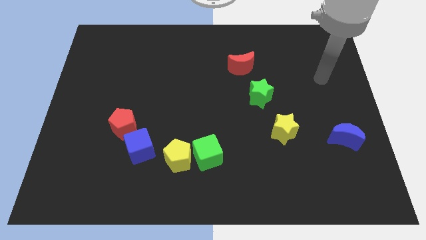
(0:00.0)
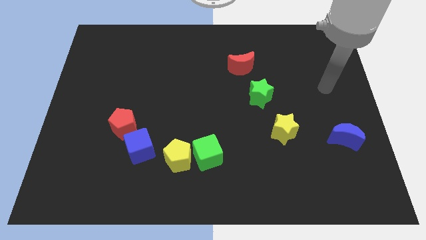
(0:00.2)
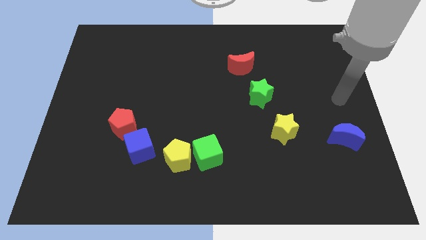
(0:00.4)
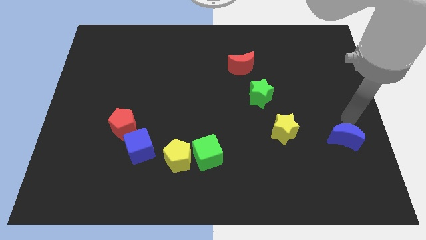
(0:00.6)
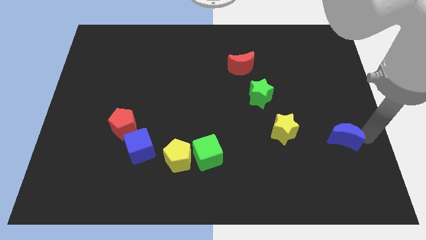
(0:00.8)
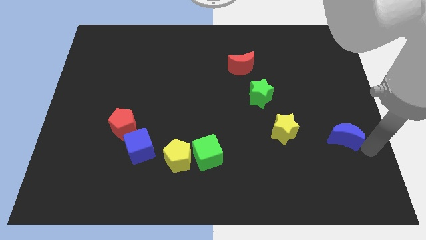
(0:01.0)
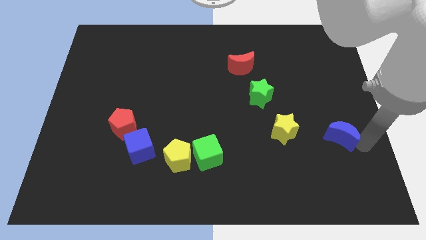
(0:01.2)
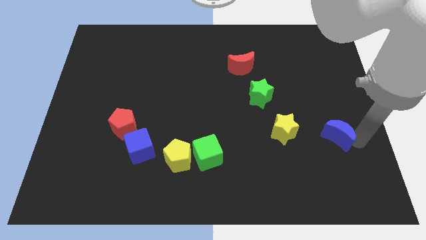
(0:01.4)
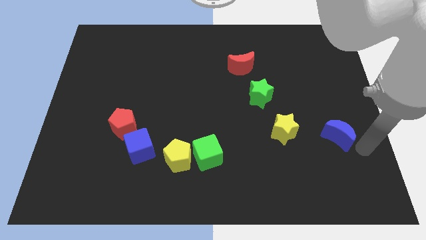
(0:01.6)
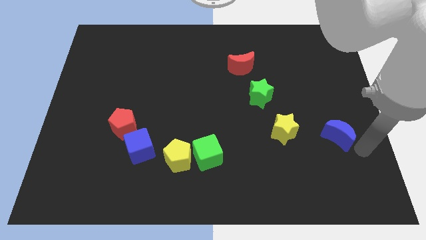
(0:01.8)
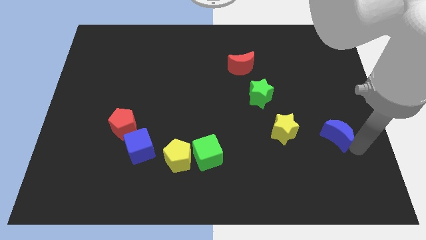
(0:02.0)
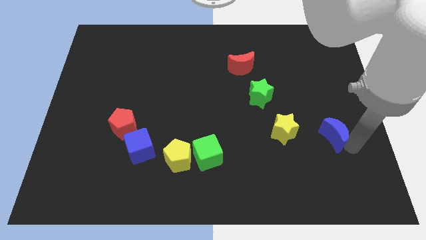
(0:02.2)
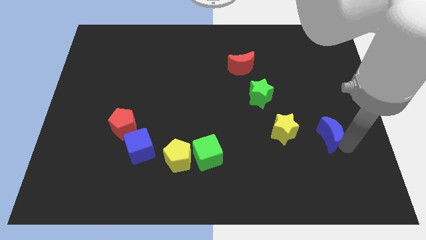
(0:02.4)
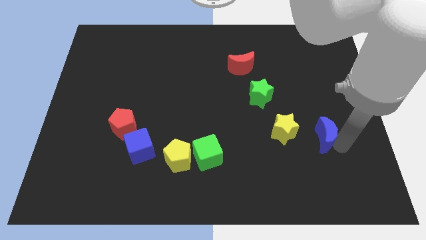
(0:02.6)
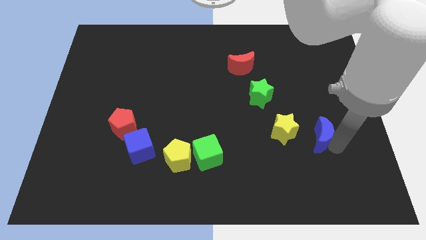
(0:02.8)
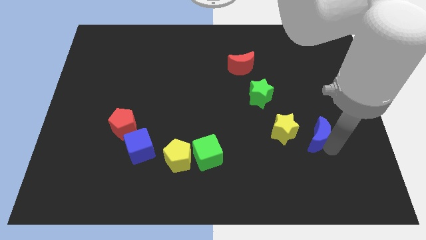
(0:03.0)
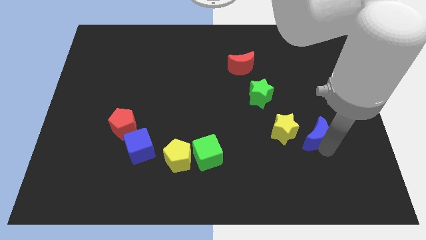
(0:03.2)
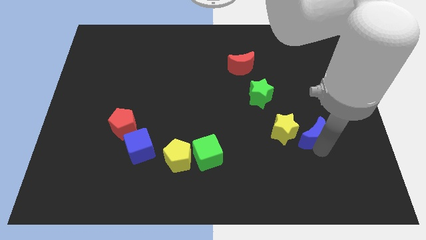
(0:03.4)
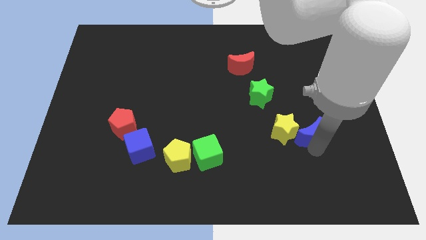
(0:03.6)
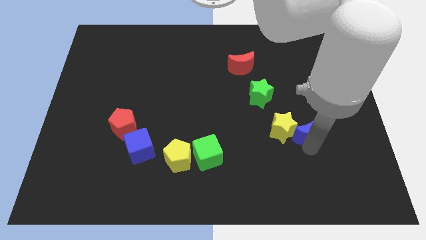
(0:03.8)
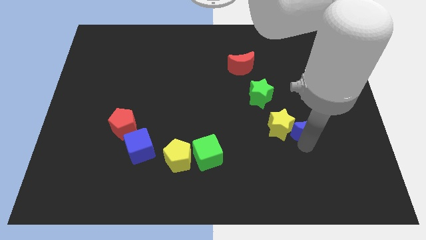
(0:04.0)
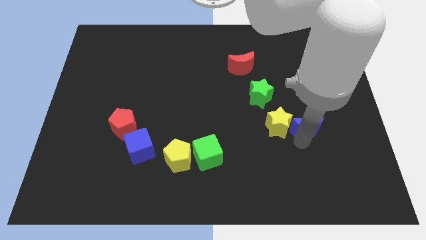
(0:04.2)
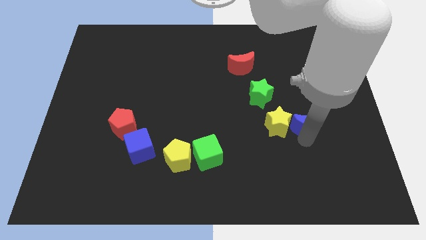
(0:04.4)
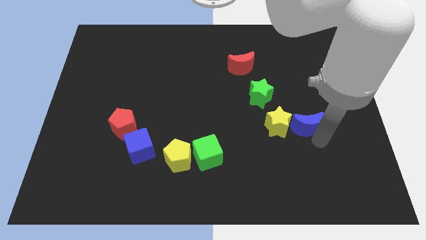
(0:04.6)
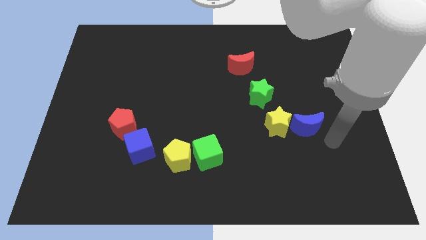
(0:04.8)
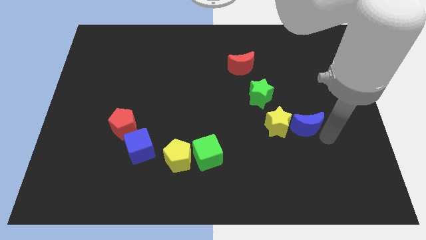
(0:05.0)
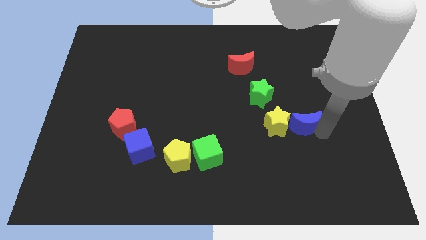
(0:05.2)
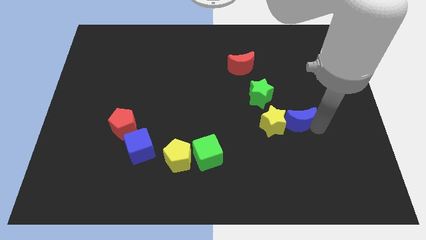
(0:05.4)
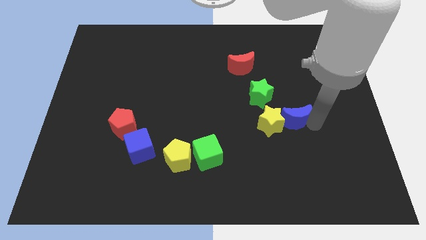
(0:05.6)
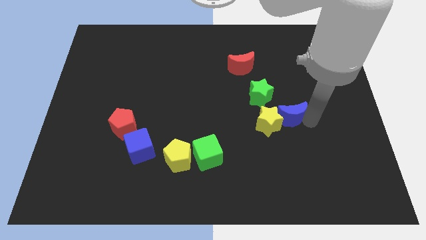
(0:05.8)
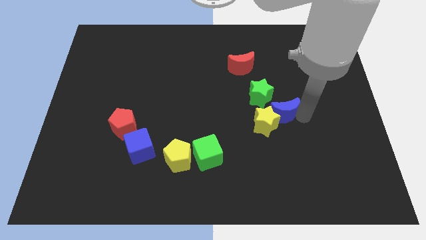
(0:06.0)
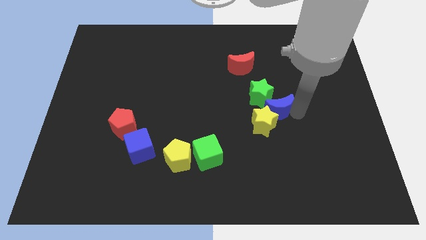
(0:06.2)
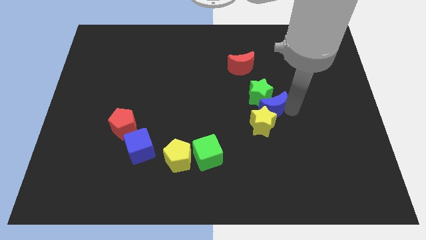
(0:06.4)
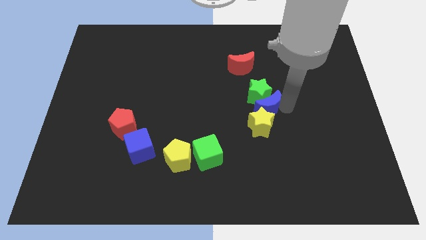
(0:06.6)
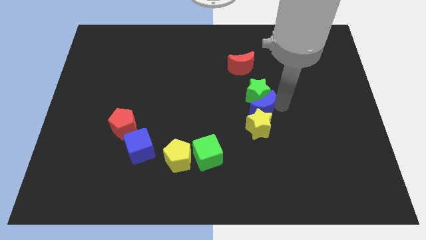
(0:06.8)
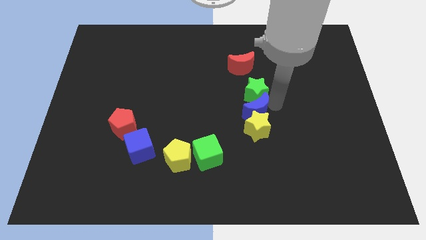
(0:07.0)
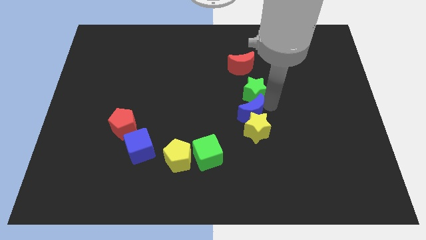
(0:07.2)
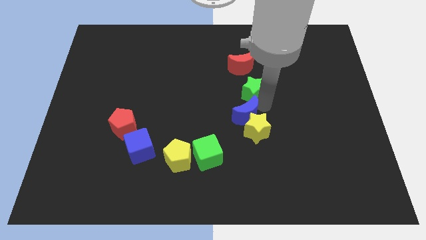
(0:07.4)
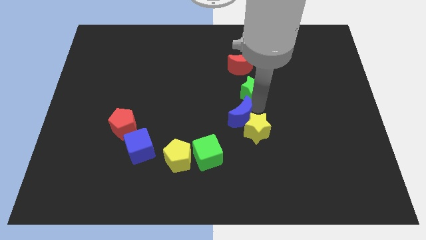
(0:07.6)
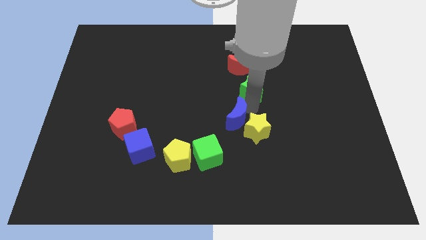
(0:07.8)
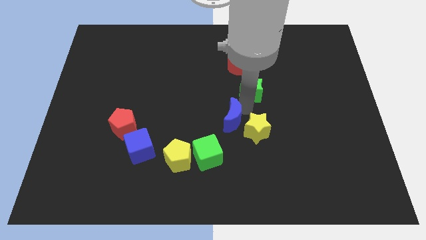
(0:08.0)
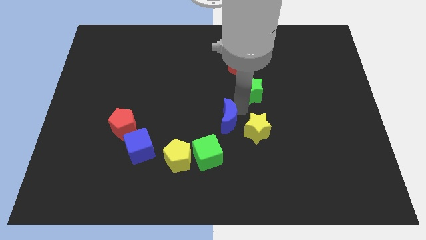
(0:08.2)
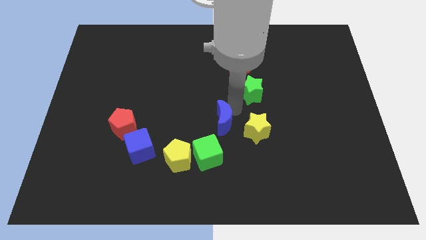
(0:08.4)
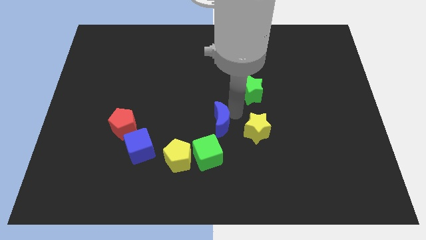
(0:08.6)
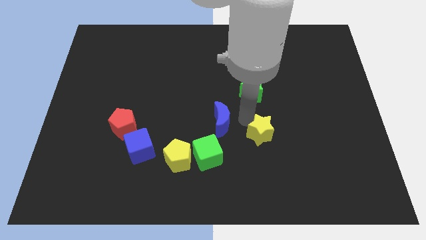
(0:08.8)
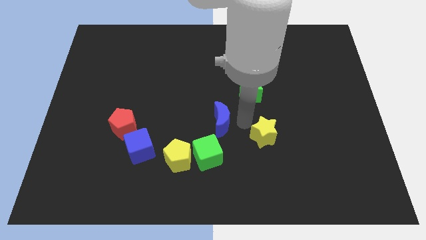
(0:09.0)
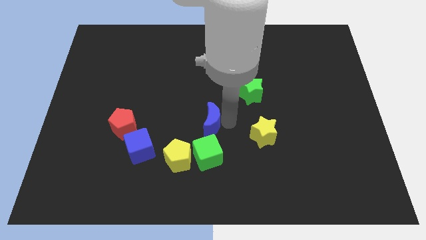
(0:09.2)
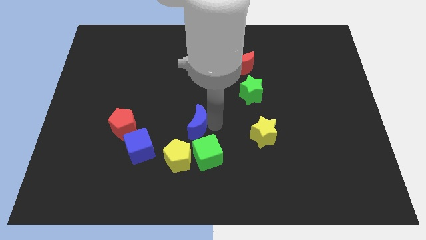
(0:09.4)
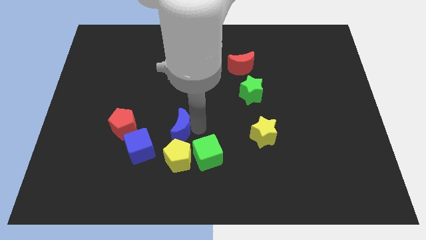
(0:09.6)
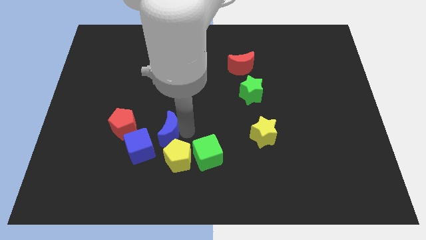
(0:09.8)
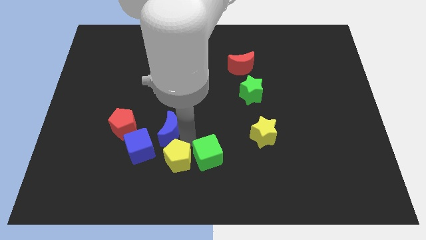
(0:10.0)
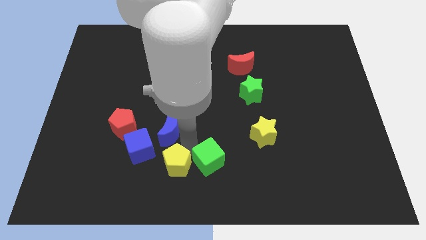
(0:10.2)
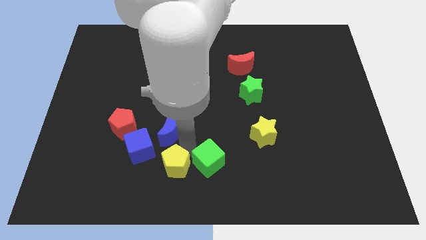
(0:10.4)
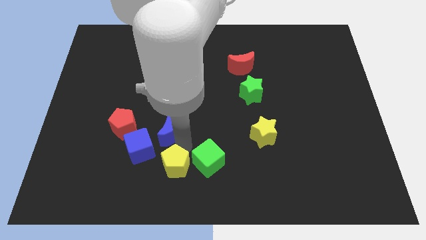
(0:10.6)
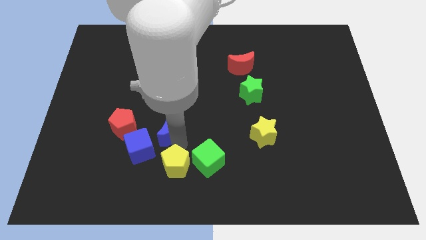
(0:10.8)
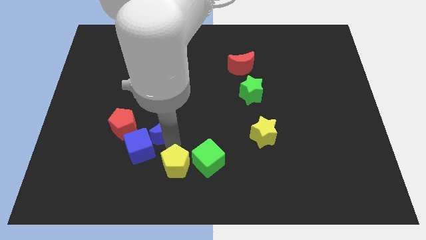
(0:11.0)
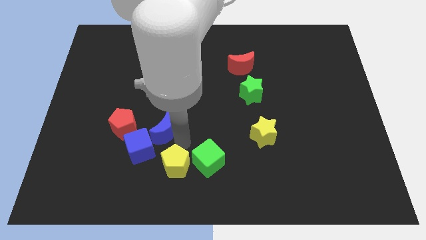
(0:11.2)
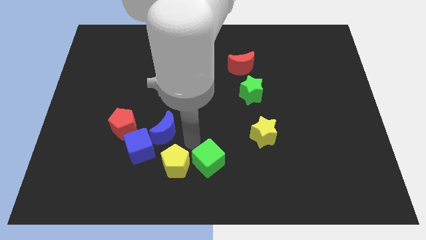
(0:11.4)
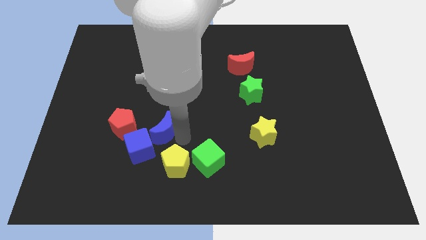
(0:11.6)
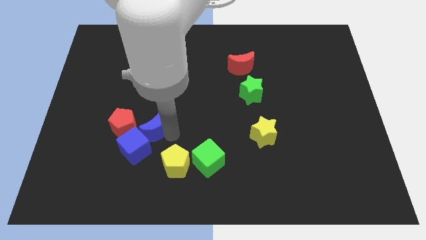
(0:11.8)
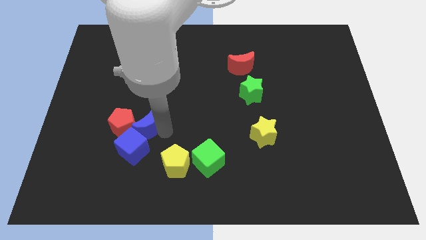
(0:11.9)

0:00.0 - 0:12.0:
slide the blue moon close to the red pentagon

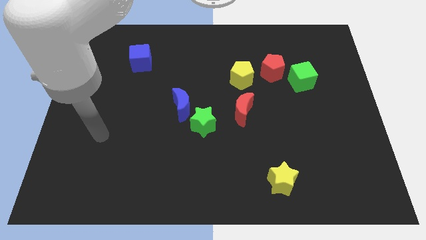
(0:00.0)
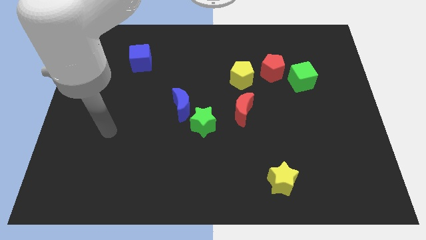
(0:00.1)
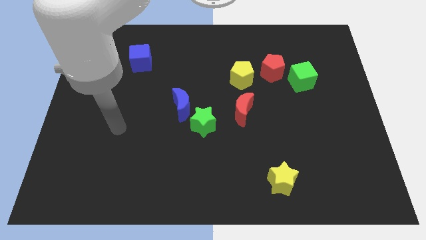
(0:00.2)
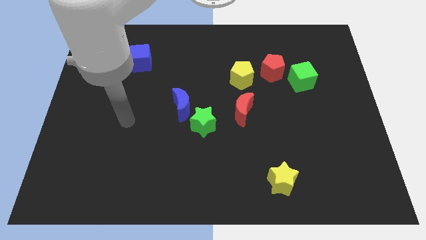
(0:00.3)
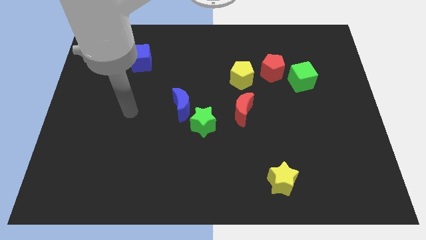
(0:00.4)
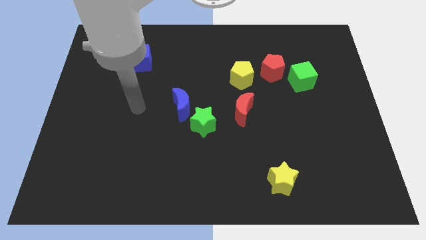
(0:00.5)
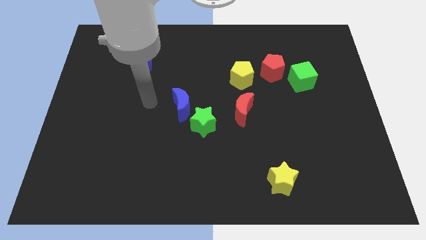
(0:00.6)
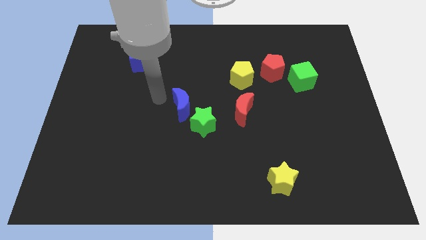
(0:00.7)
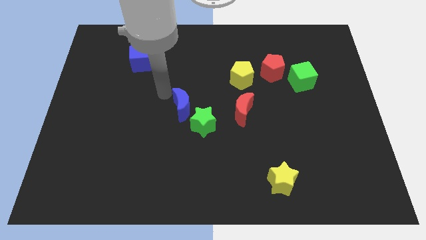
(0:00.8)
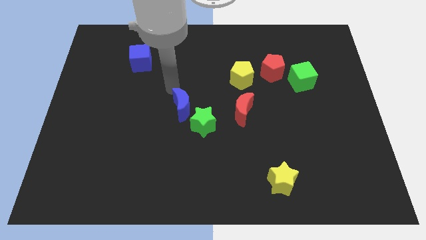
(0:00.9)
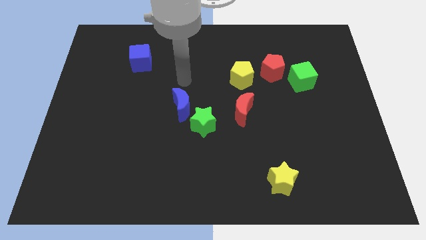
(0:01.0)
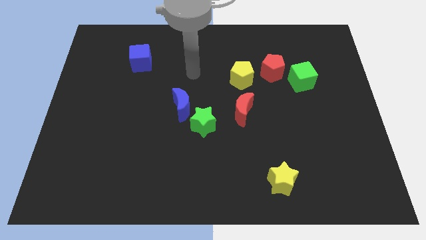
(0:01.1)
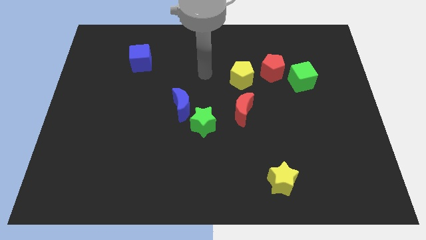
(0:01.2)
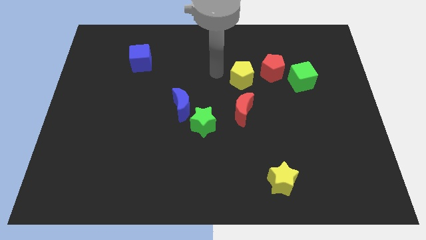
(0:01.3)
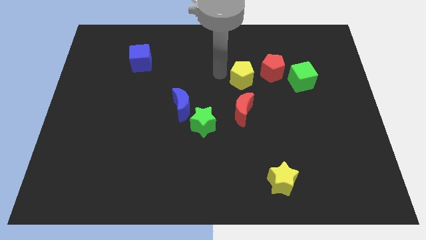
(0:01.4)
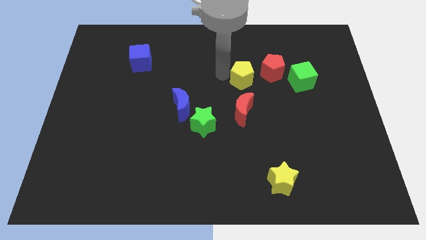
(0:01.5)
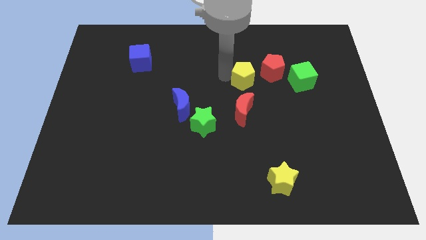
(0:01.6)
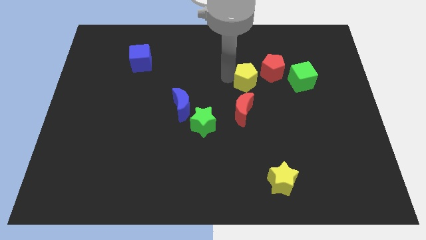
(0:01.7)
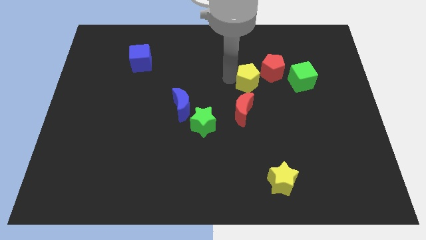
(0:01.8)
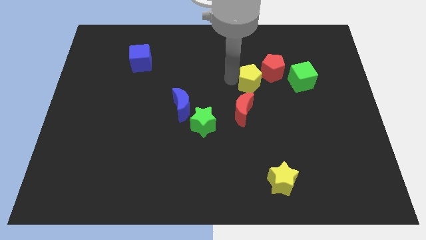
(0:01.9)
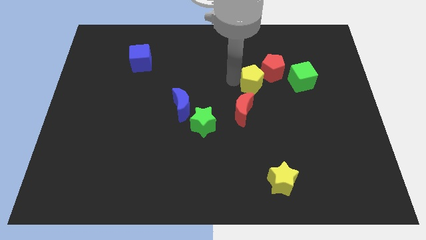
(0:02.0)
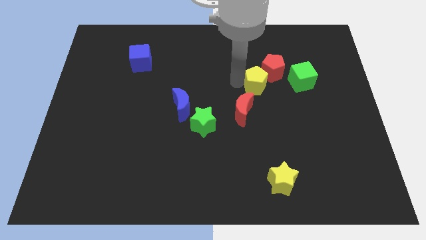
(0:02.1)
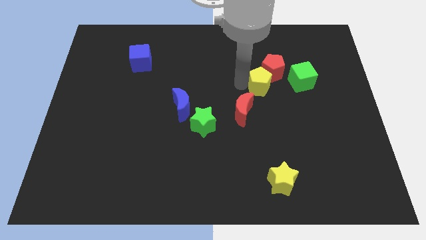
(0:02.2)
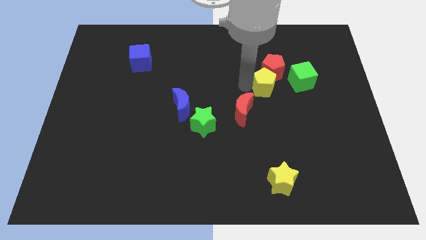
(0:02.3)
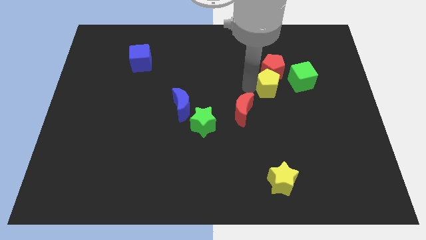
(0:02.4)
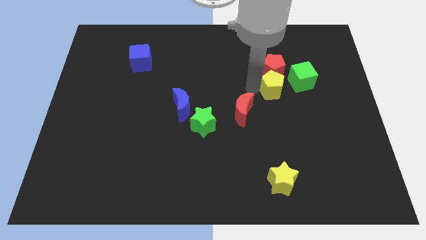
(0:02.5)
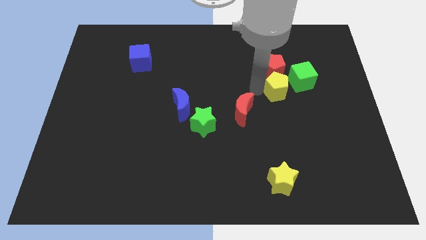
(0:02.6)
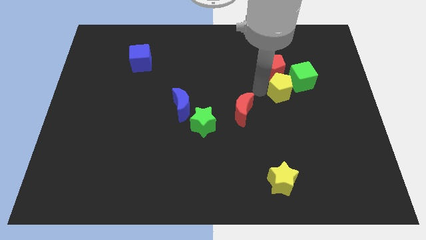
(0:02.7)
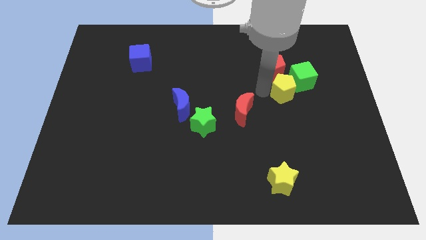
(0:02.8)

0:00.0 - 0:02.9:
slide the yellow pentagon close to the green cube
